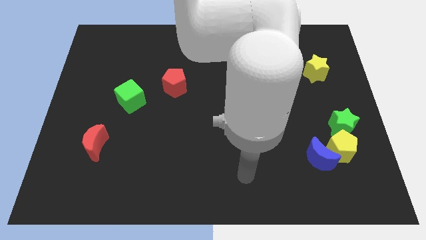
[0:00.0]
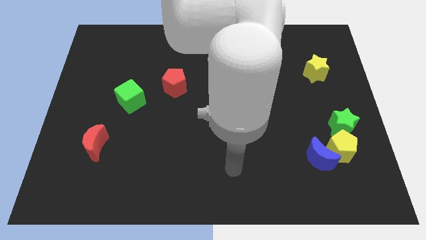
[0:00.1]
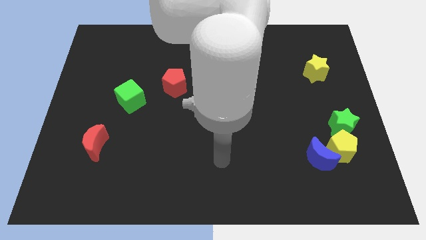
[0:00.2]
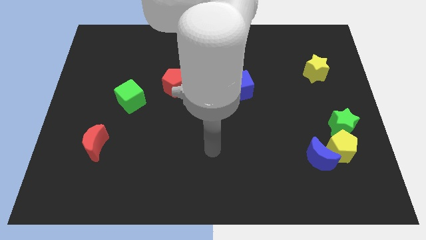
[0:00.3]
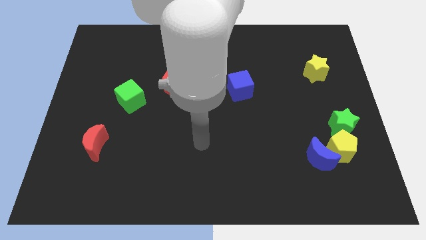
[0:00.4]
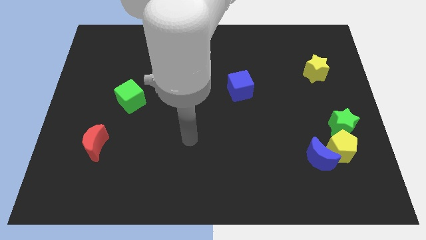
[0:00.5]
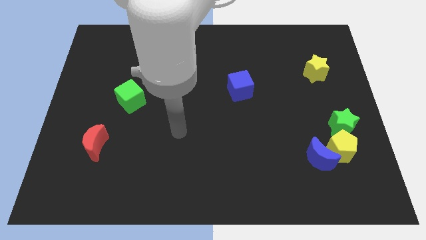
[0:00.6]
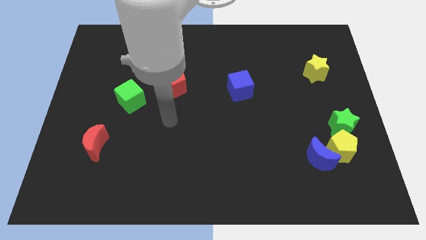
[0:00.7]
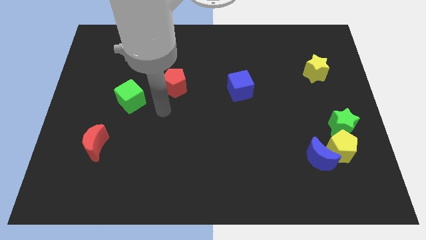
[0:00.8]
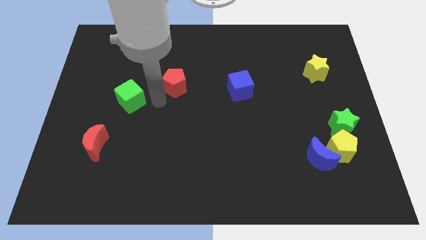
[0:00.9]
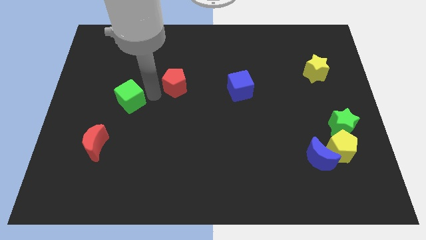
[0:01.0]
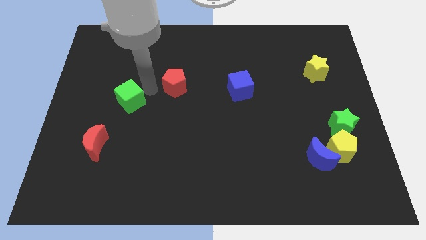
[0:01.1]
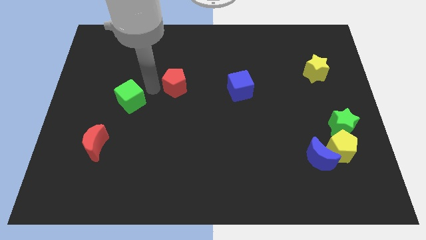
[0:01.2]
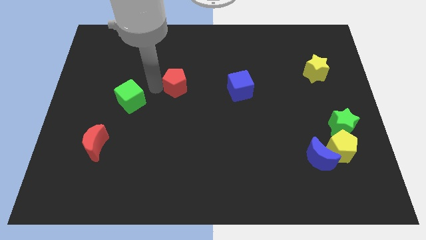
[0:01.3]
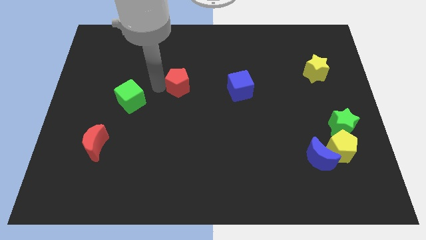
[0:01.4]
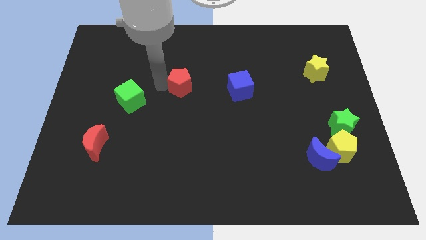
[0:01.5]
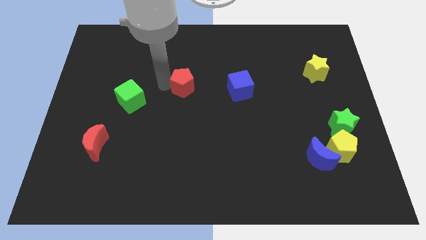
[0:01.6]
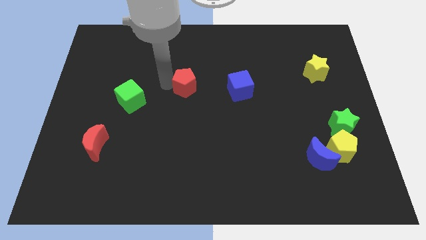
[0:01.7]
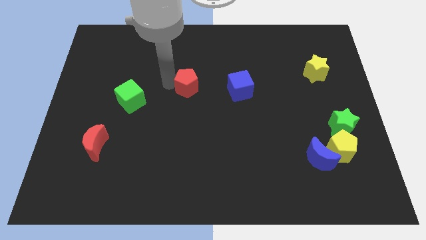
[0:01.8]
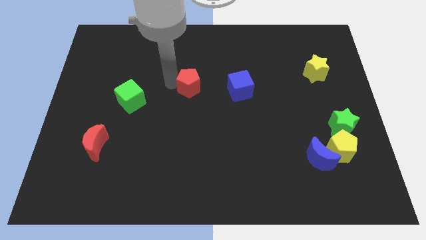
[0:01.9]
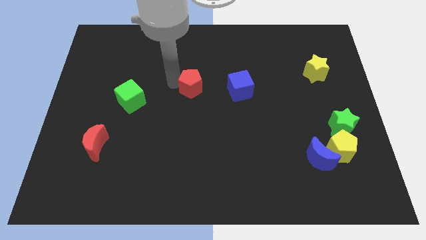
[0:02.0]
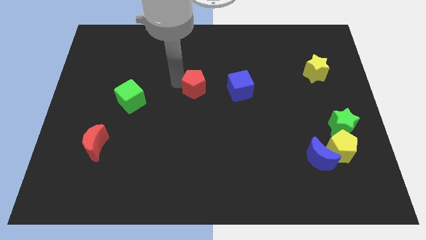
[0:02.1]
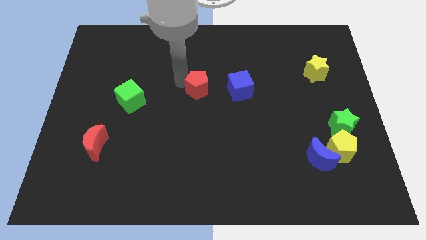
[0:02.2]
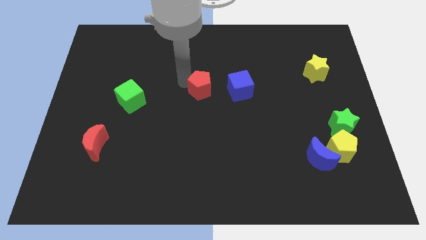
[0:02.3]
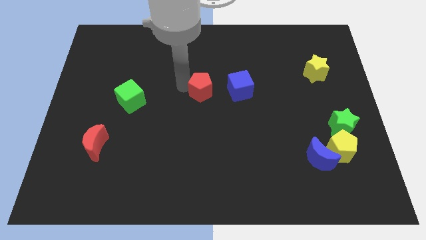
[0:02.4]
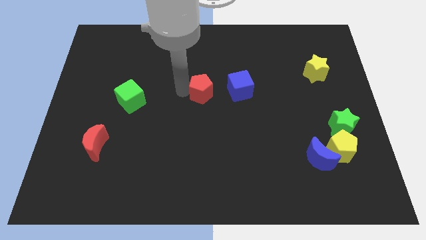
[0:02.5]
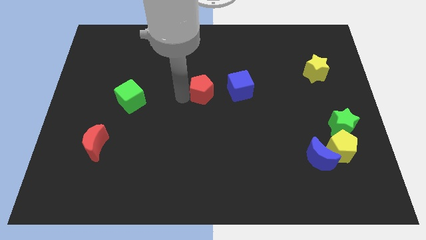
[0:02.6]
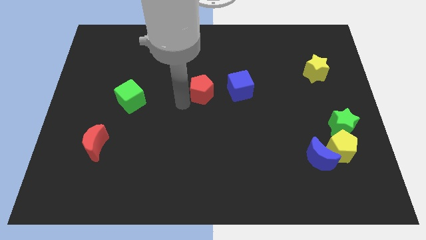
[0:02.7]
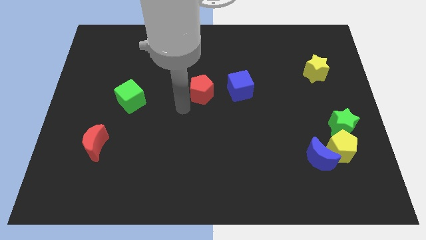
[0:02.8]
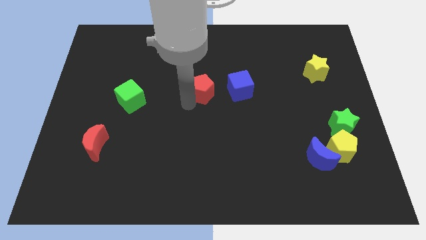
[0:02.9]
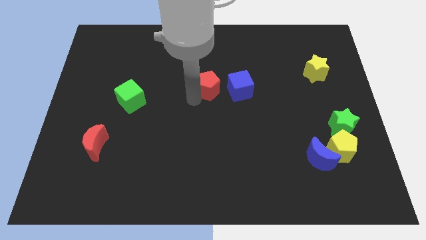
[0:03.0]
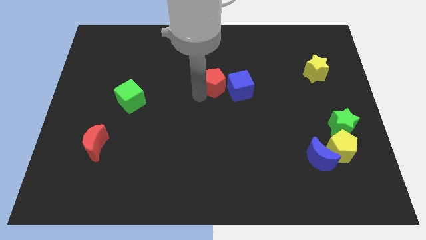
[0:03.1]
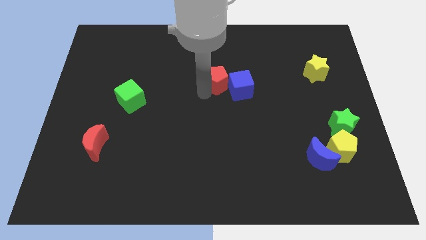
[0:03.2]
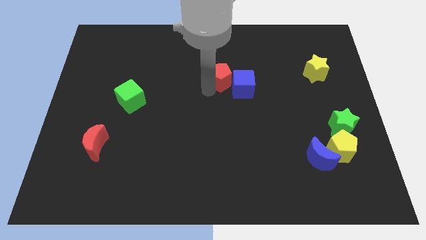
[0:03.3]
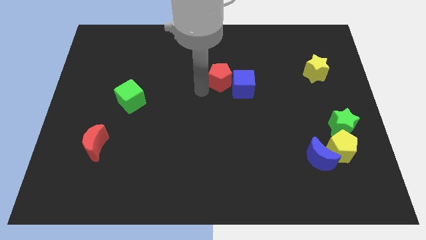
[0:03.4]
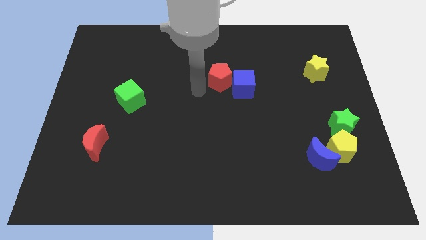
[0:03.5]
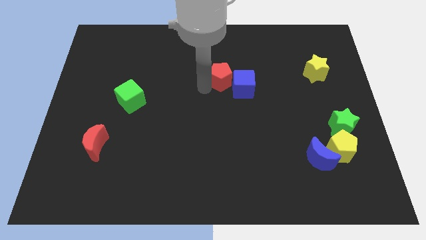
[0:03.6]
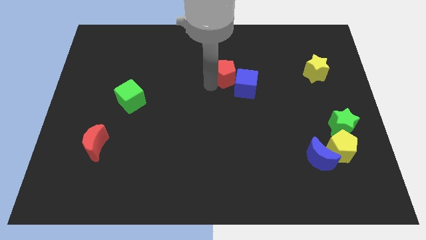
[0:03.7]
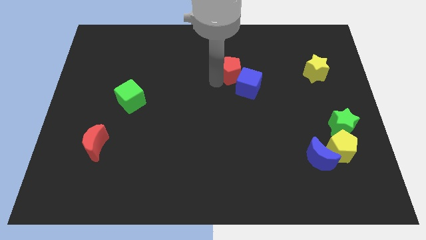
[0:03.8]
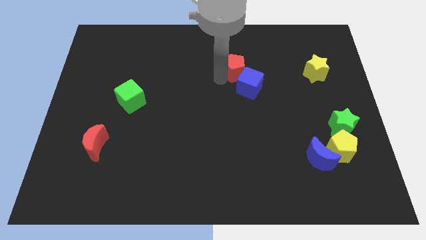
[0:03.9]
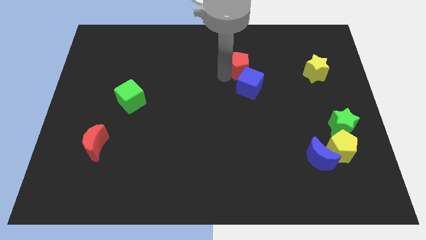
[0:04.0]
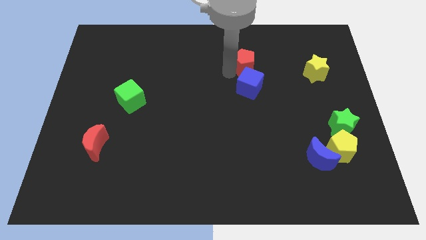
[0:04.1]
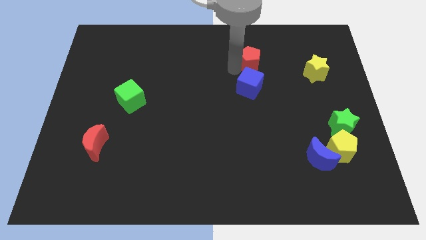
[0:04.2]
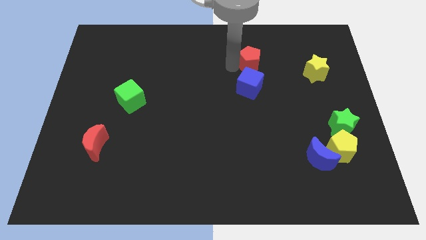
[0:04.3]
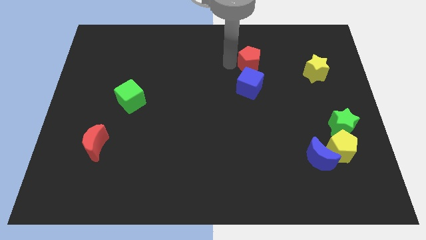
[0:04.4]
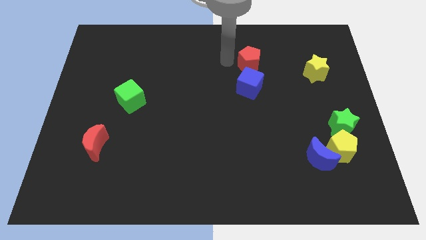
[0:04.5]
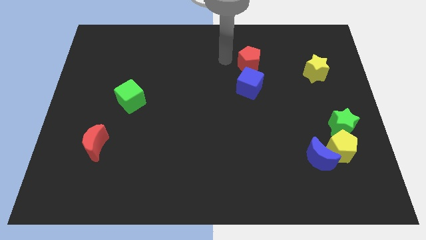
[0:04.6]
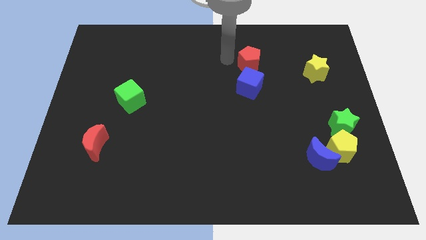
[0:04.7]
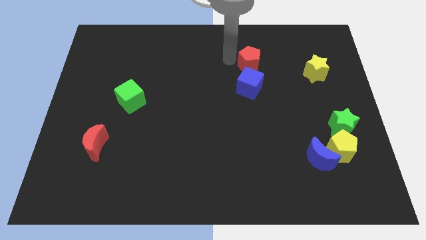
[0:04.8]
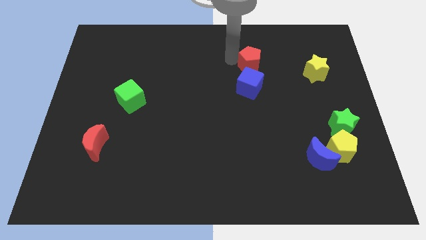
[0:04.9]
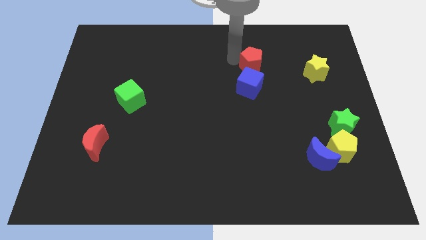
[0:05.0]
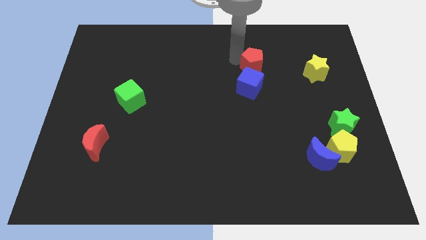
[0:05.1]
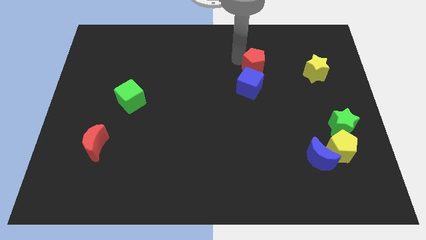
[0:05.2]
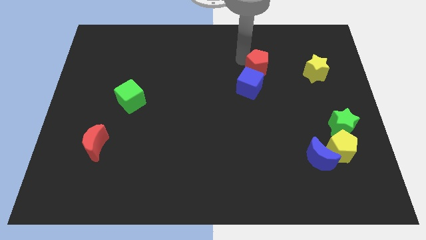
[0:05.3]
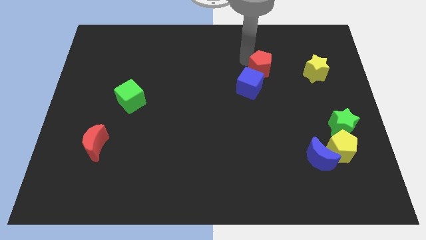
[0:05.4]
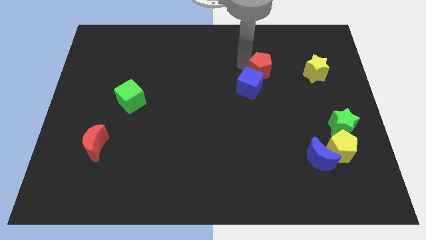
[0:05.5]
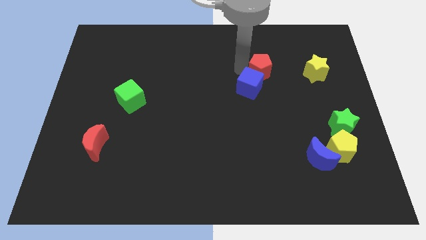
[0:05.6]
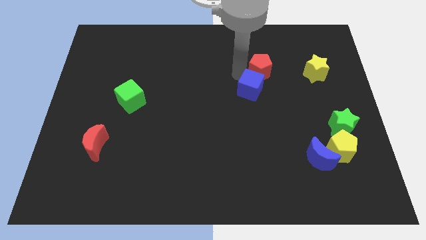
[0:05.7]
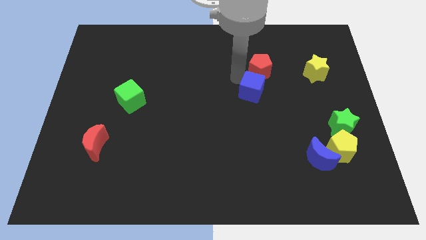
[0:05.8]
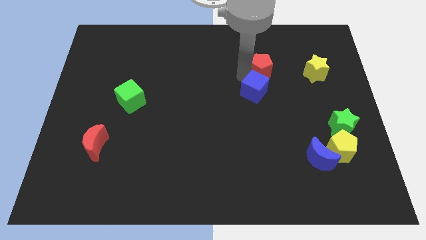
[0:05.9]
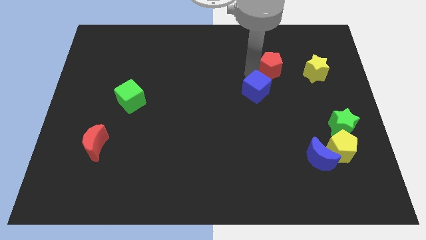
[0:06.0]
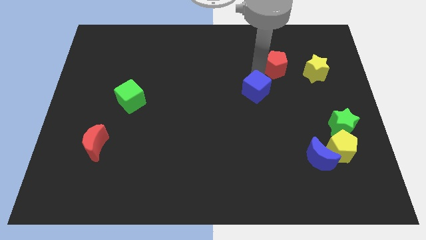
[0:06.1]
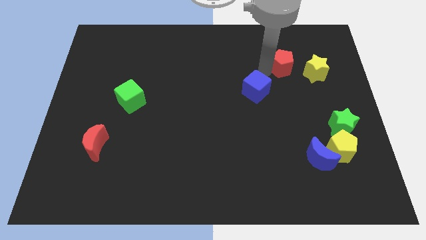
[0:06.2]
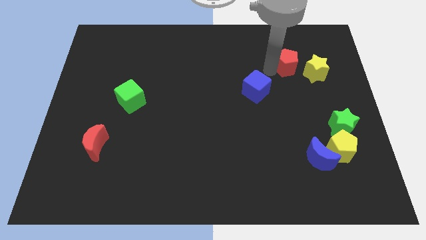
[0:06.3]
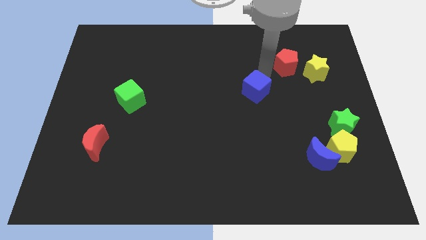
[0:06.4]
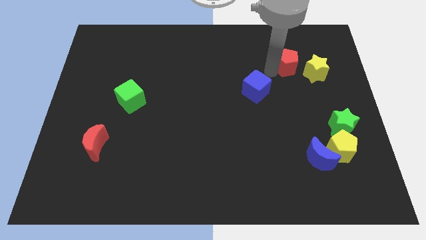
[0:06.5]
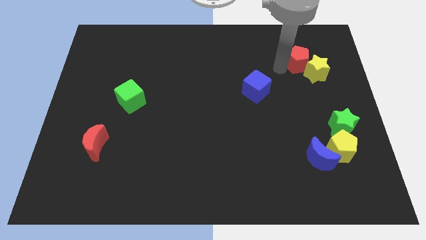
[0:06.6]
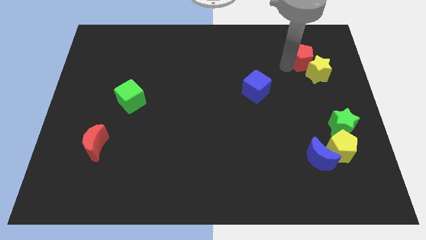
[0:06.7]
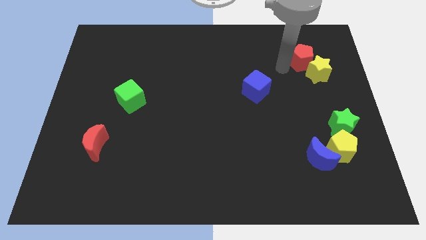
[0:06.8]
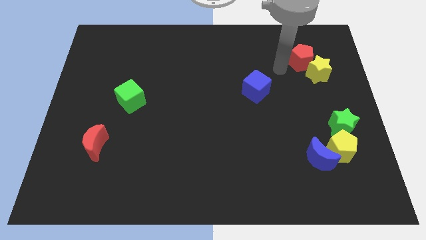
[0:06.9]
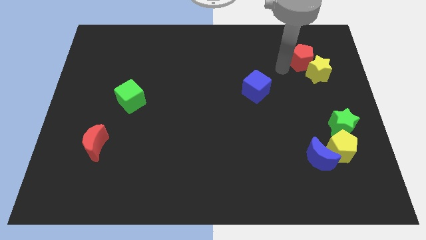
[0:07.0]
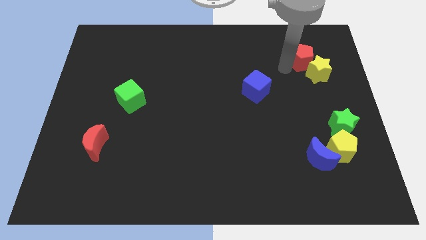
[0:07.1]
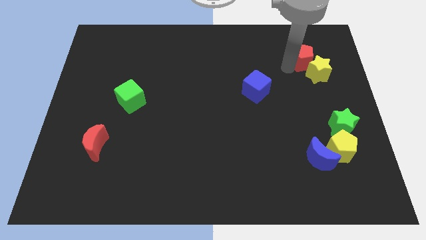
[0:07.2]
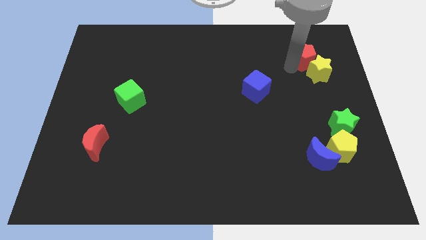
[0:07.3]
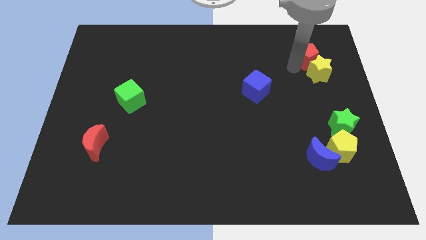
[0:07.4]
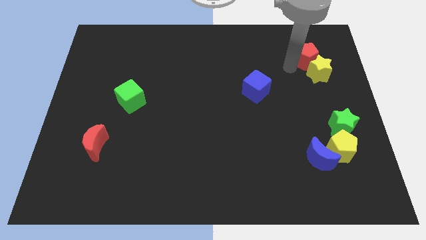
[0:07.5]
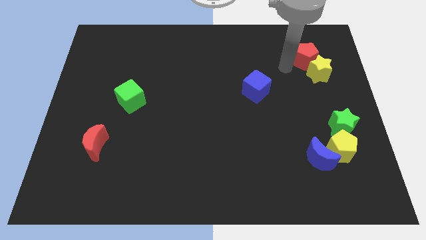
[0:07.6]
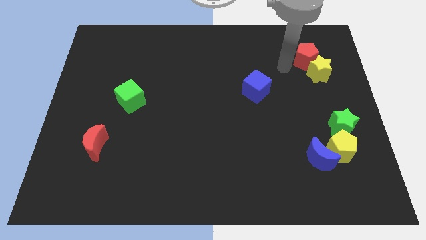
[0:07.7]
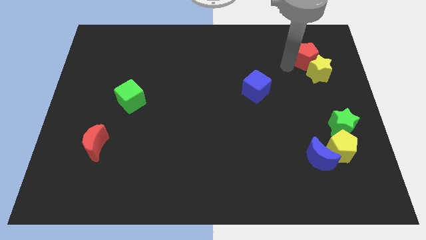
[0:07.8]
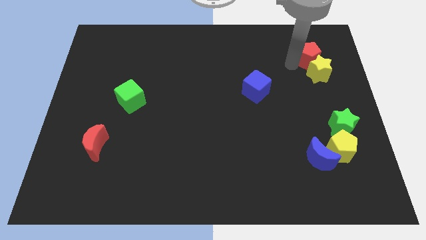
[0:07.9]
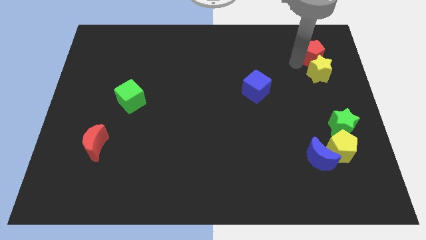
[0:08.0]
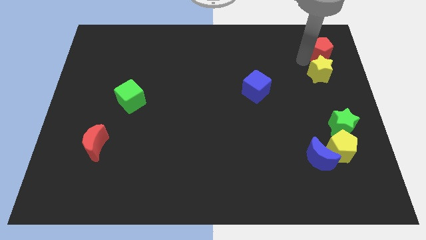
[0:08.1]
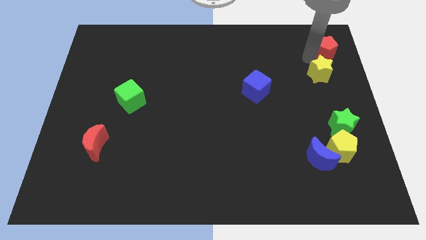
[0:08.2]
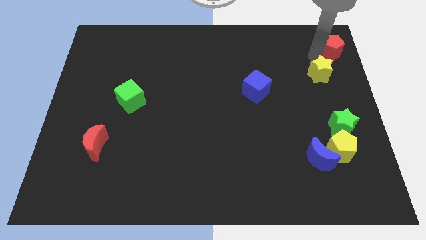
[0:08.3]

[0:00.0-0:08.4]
put the red pentagon to the top right corner
